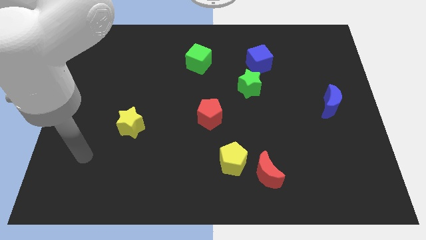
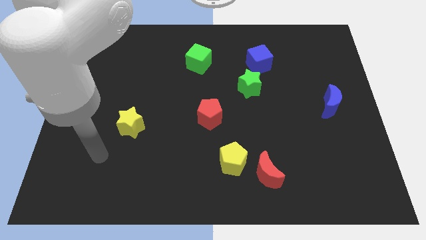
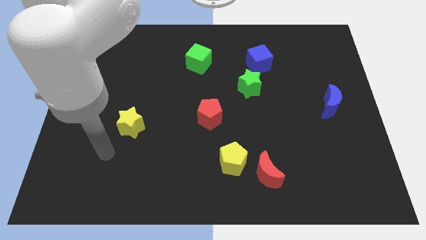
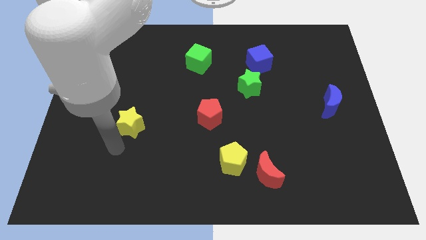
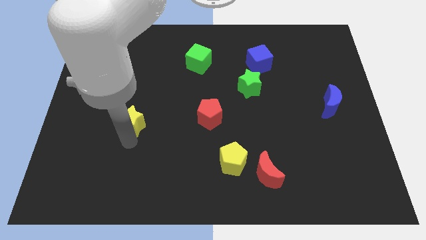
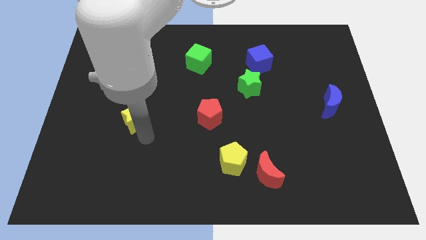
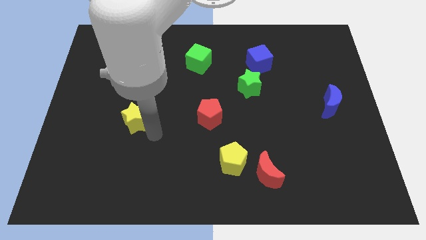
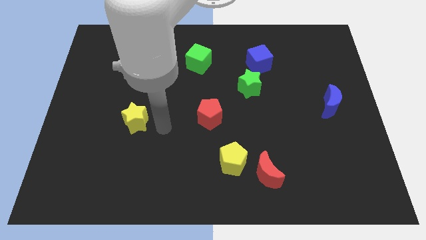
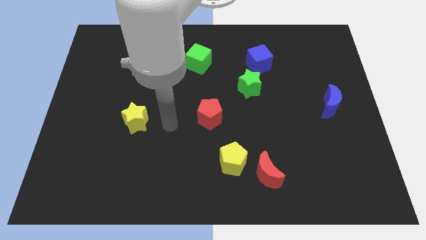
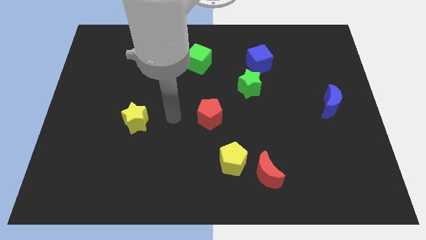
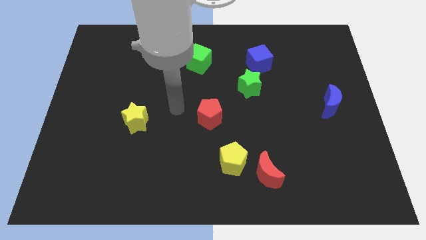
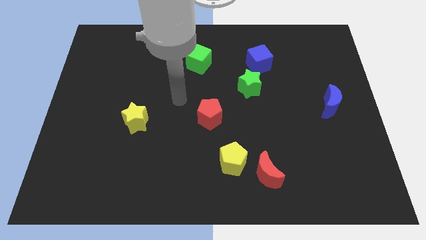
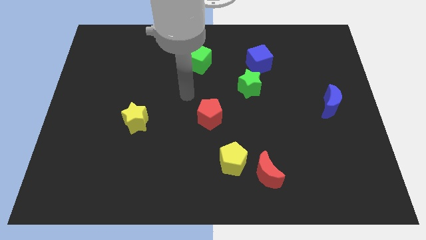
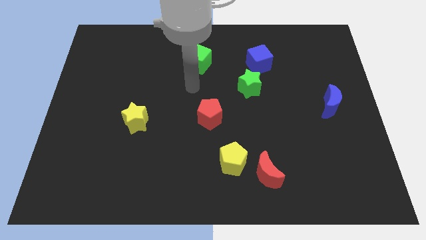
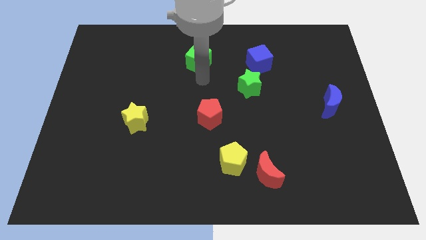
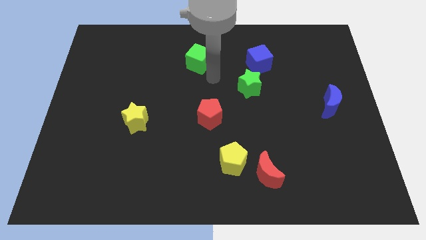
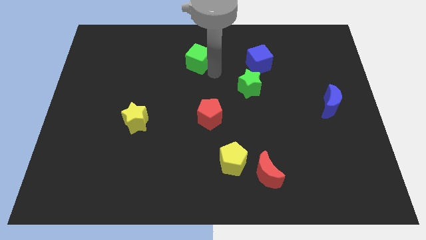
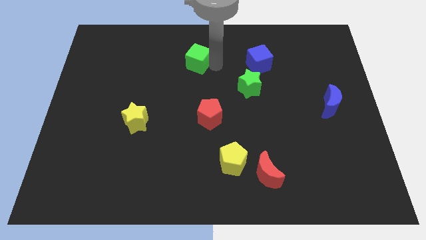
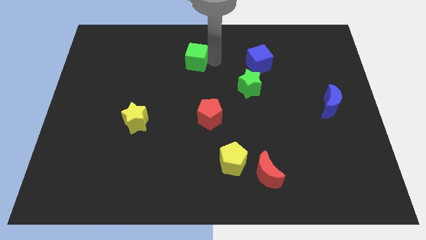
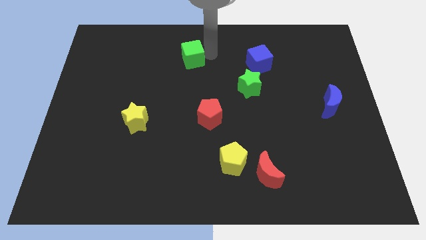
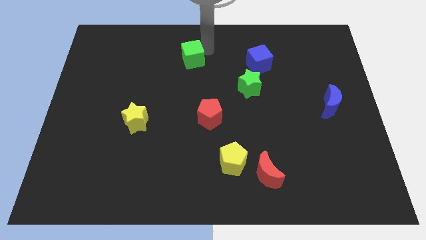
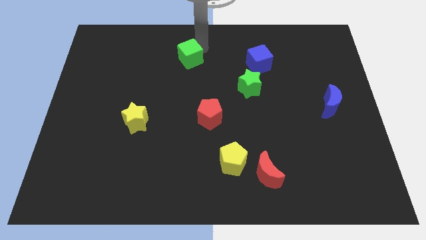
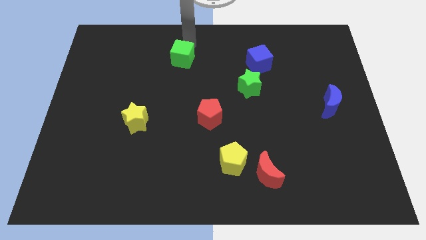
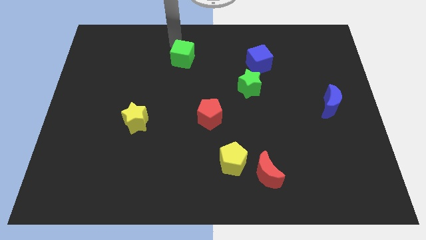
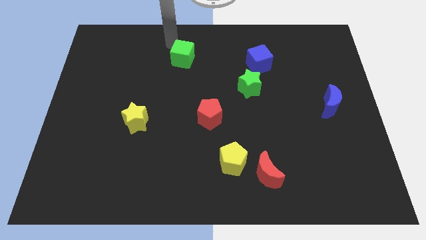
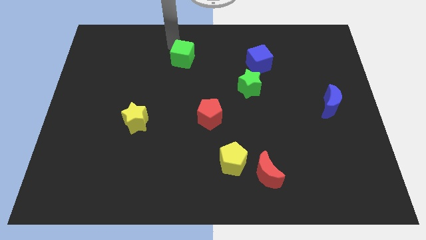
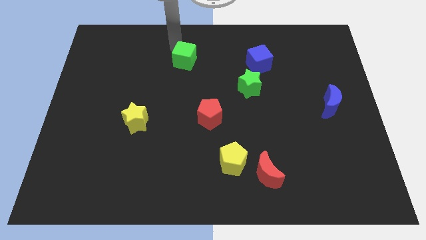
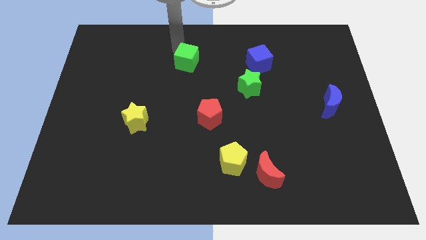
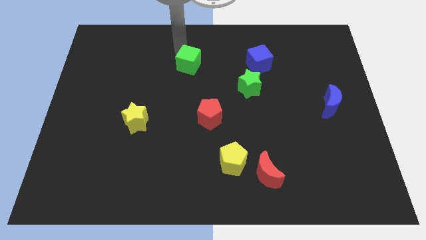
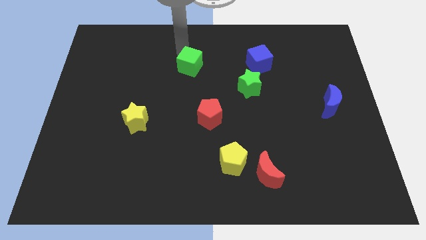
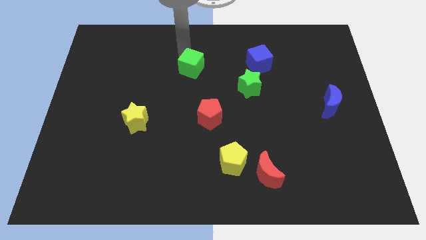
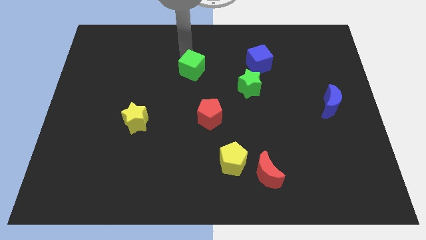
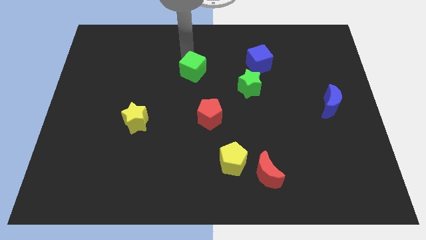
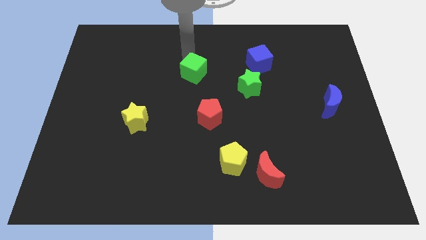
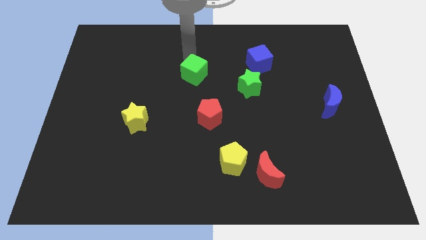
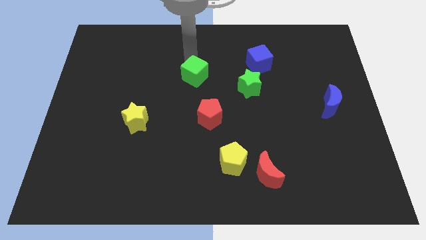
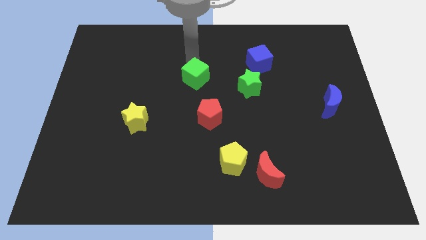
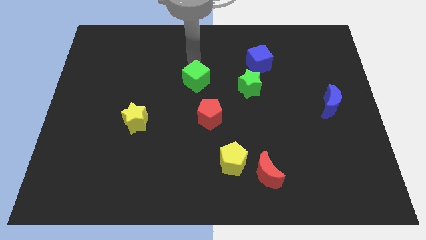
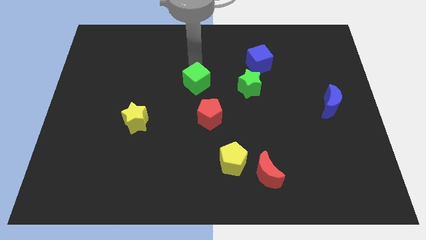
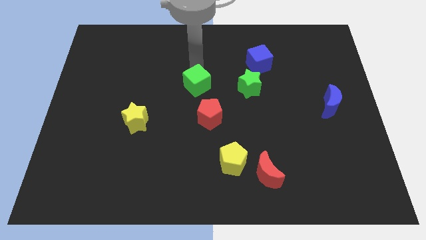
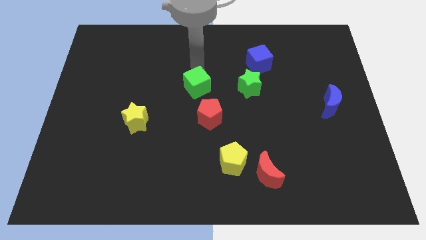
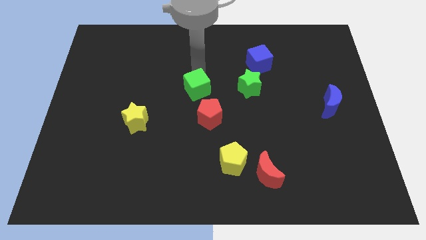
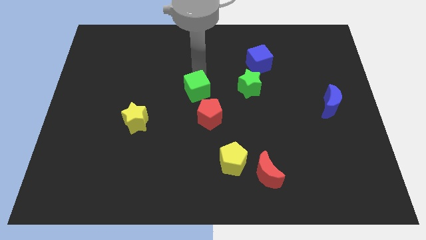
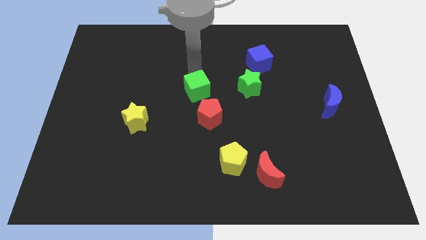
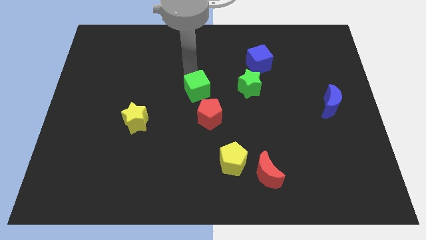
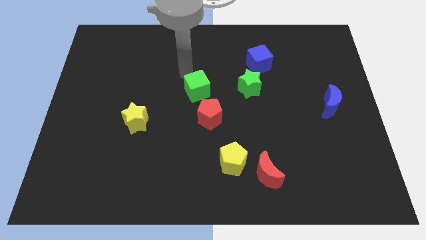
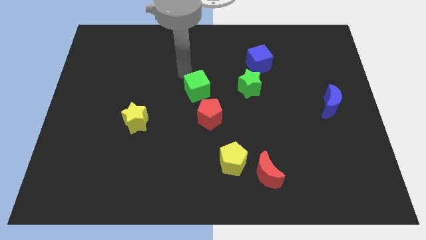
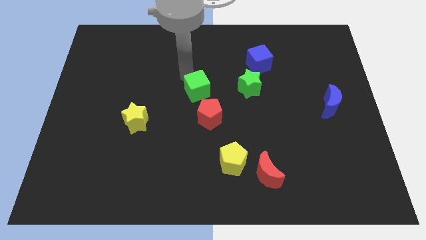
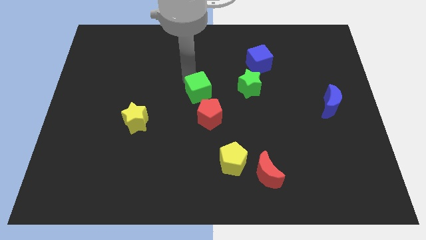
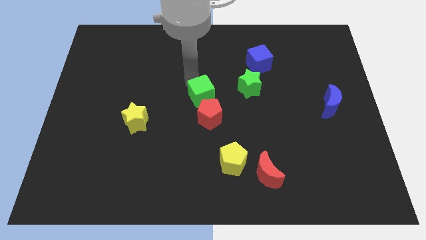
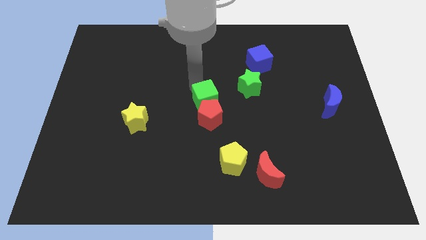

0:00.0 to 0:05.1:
slide the green cube close to the red pentagon

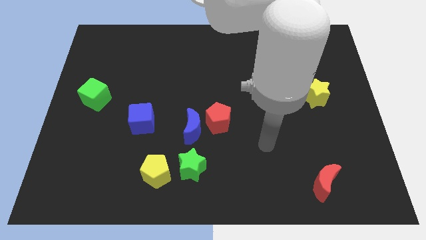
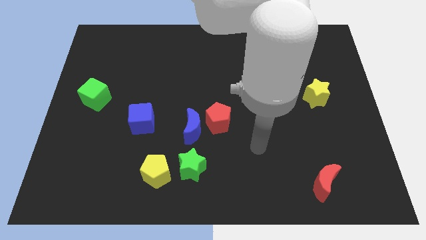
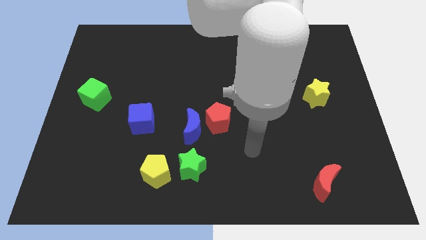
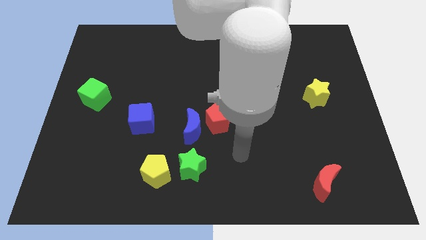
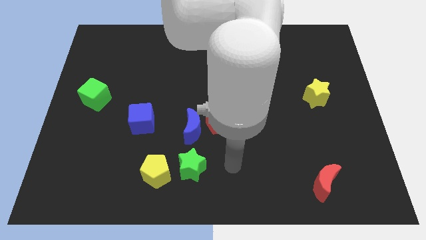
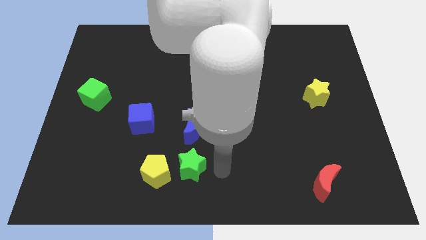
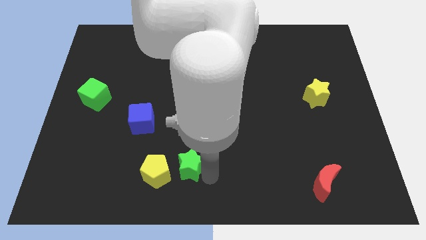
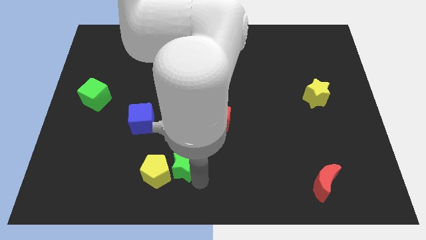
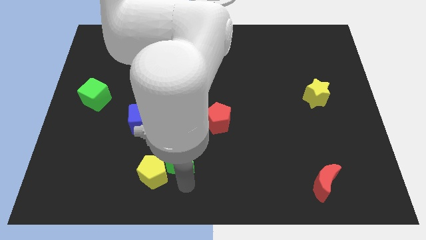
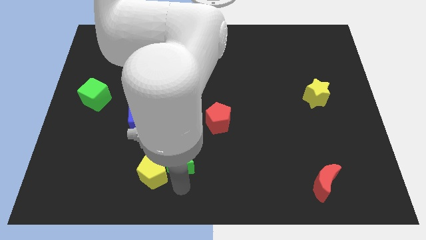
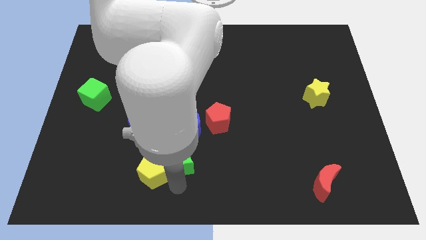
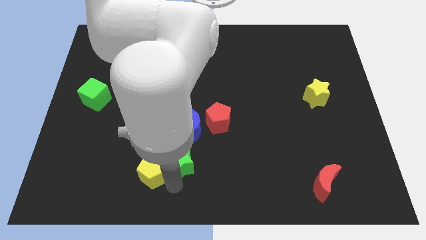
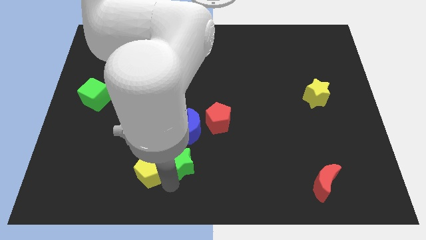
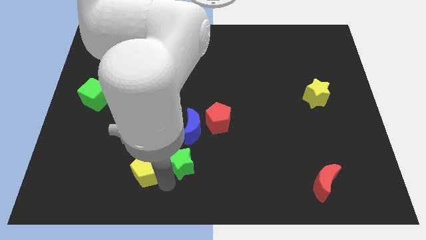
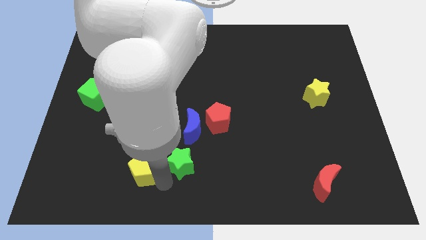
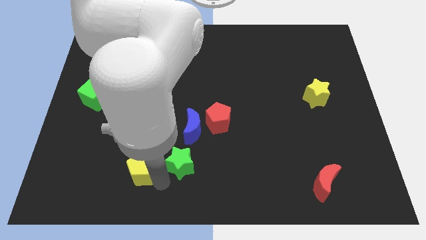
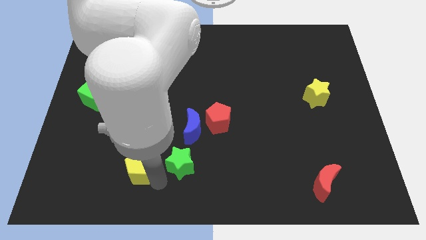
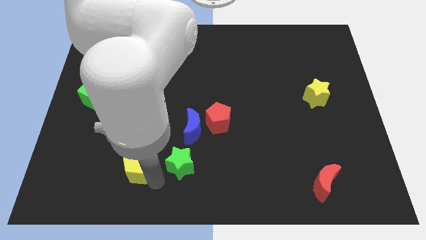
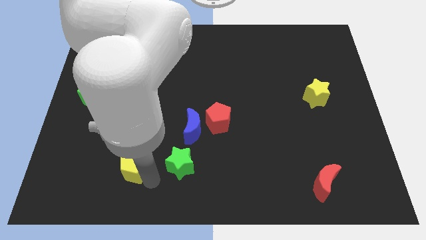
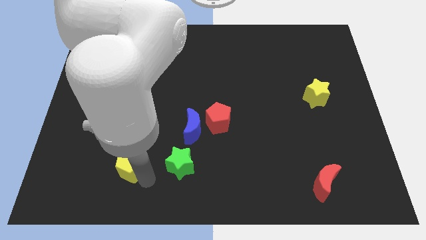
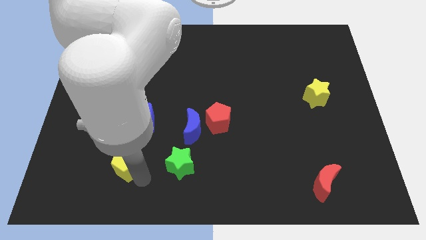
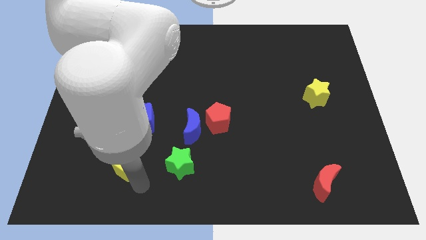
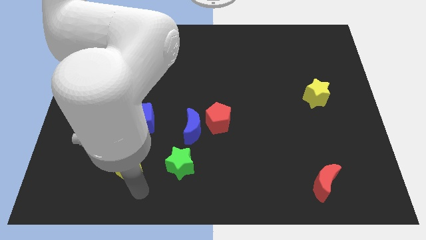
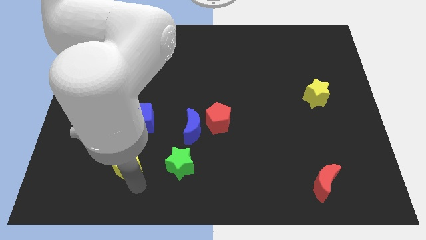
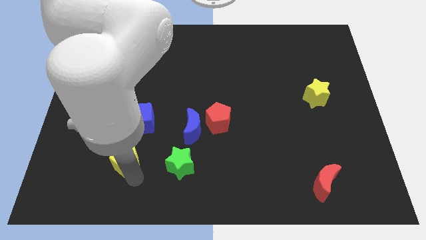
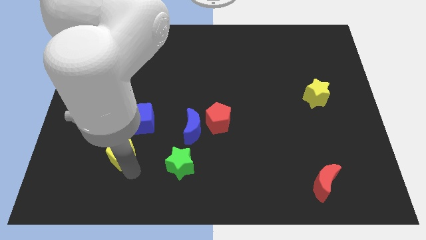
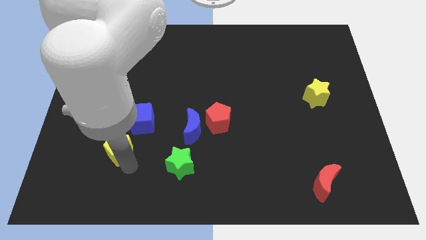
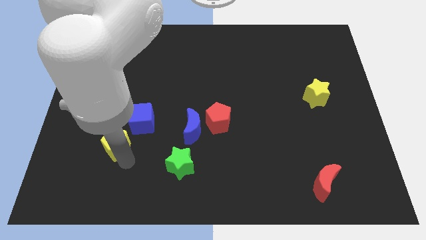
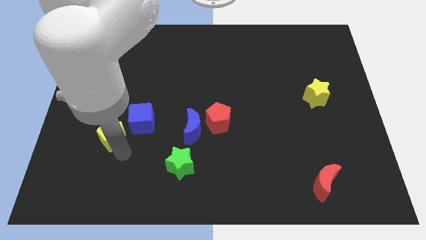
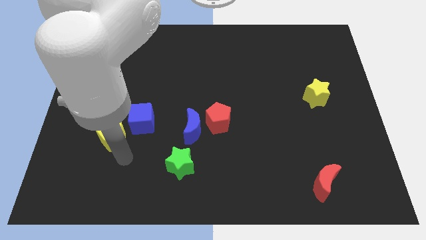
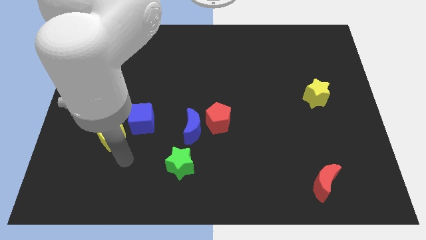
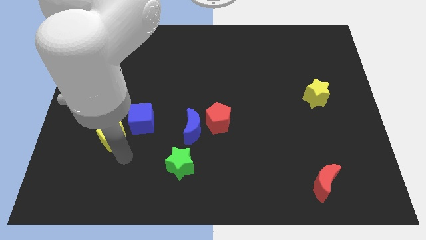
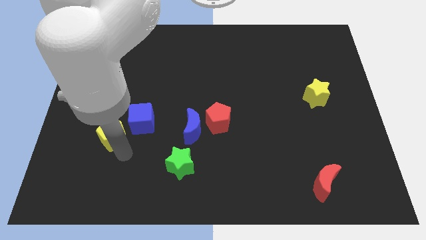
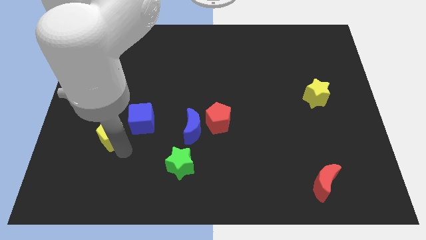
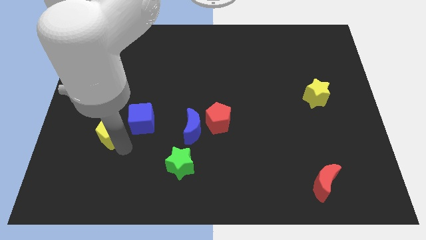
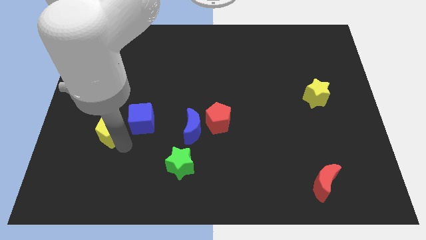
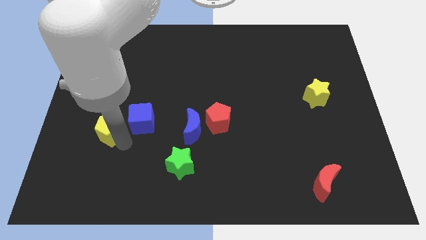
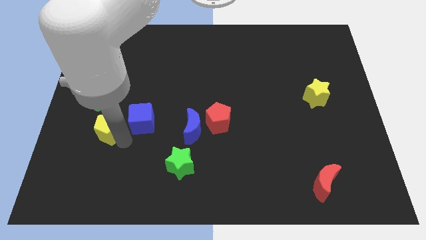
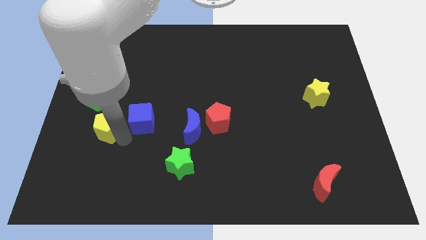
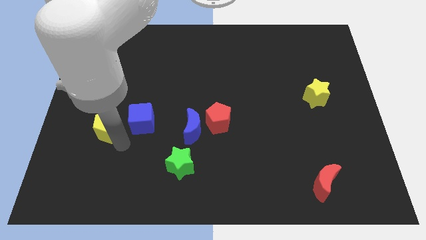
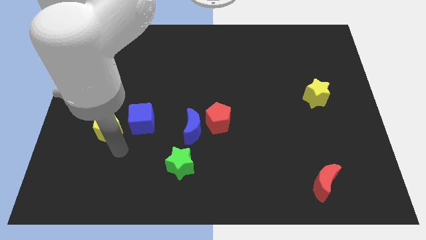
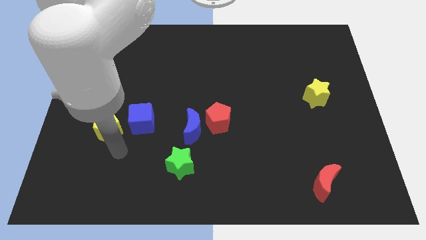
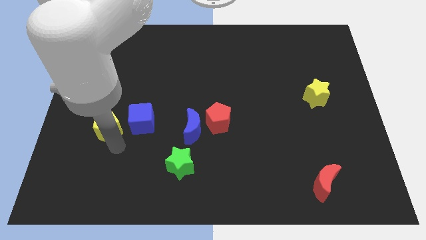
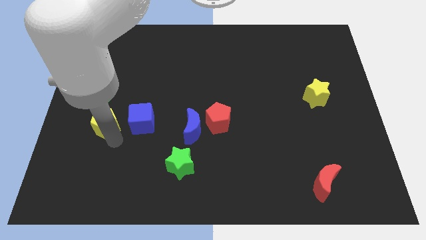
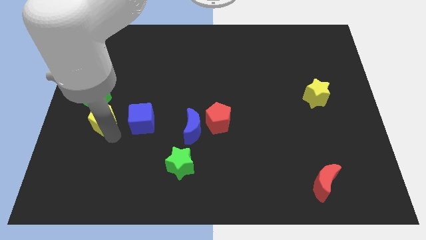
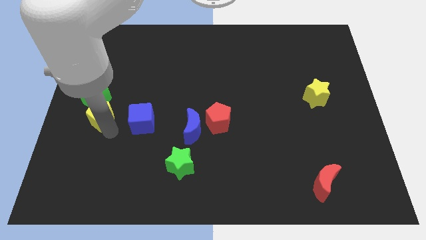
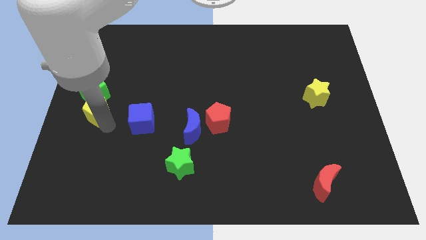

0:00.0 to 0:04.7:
push the yellow pentagon to the green cube
